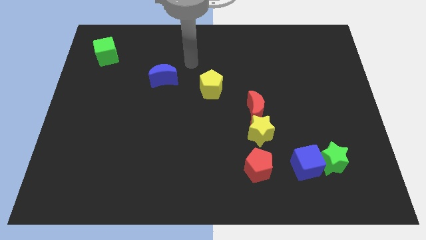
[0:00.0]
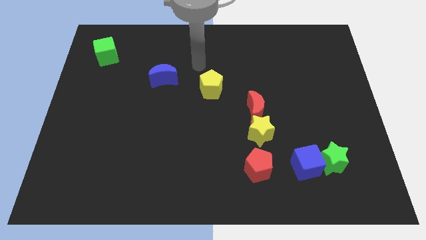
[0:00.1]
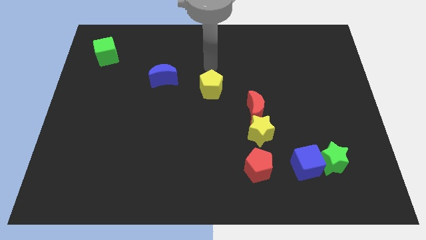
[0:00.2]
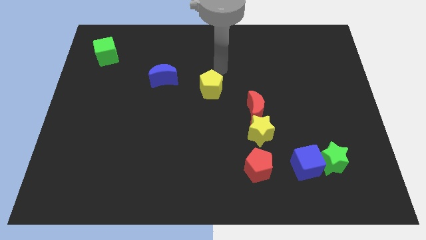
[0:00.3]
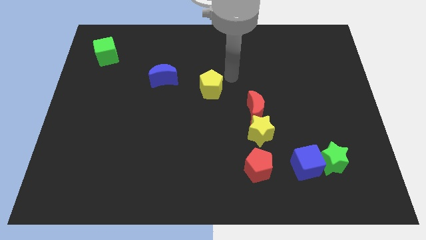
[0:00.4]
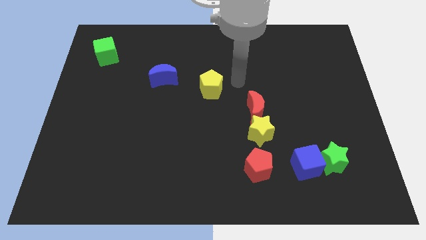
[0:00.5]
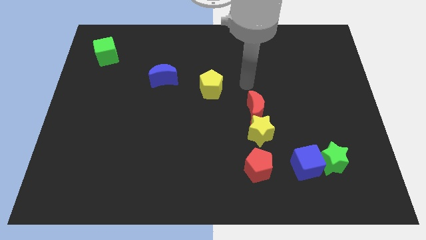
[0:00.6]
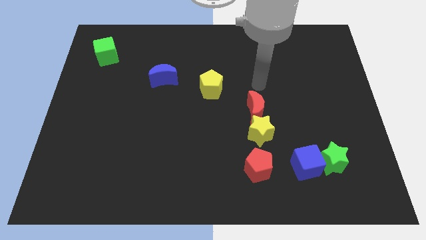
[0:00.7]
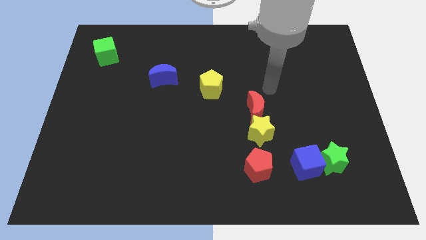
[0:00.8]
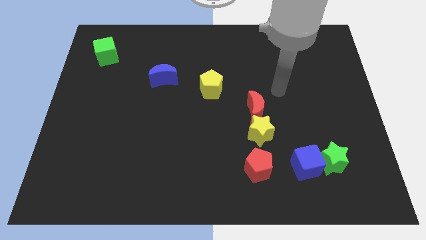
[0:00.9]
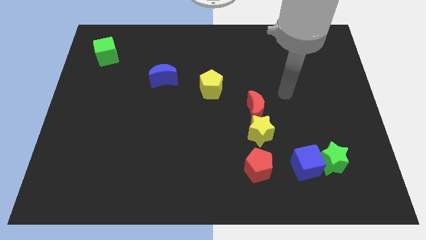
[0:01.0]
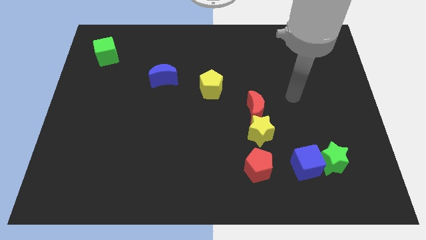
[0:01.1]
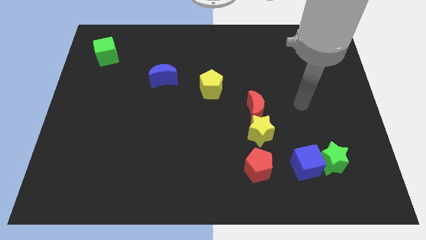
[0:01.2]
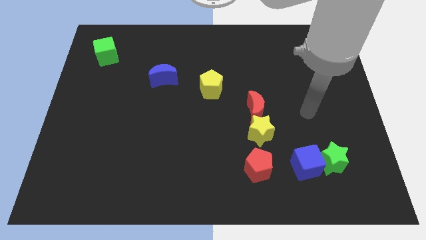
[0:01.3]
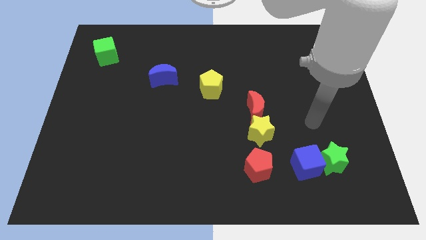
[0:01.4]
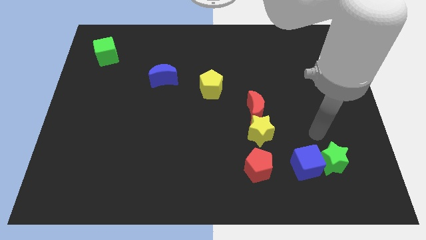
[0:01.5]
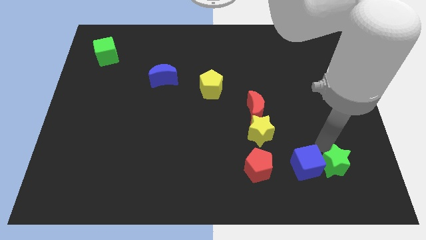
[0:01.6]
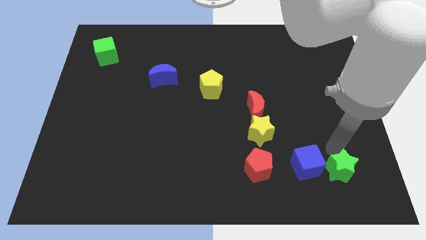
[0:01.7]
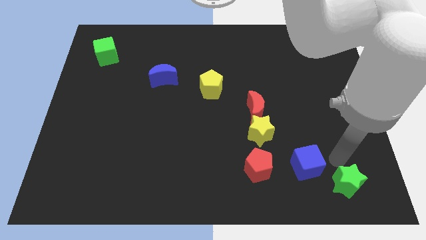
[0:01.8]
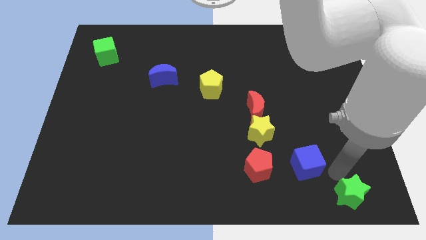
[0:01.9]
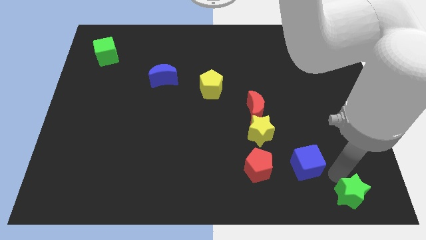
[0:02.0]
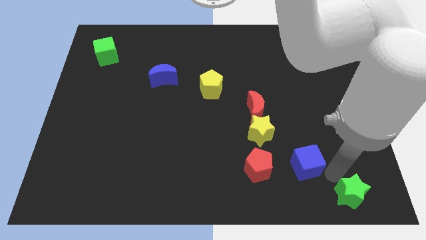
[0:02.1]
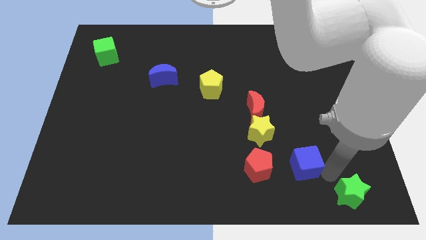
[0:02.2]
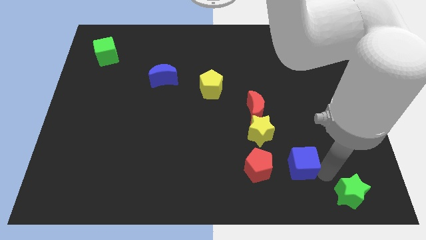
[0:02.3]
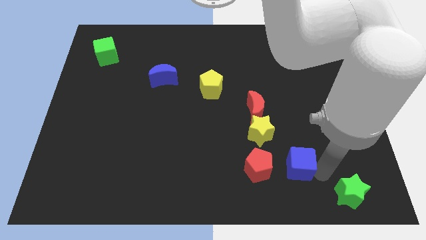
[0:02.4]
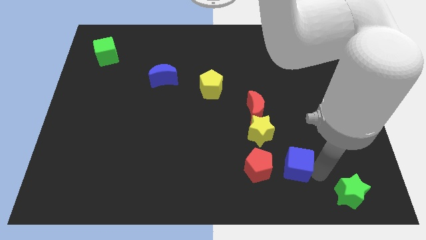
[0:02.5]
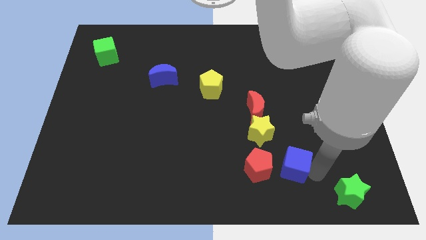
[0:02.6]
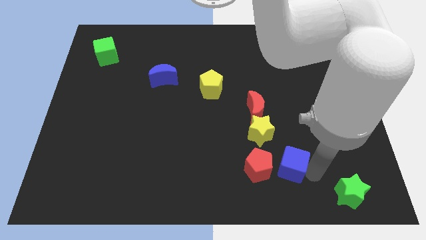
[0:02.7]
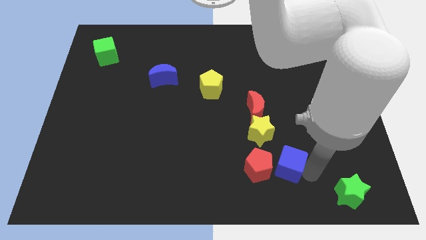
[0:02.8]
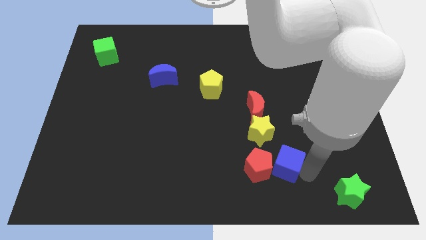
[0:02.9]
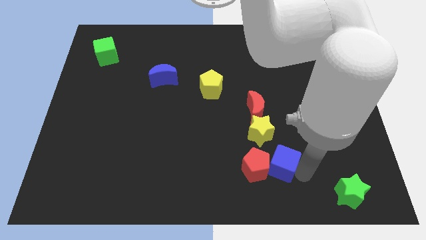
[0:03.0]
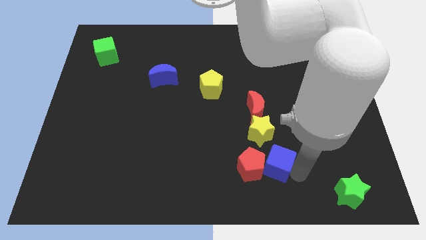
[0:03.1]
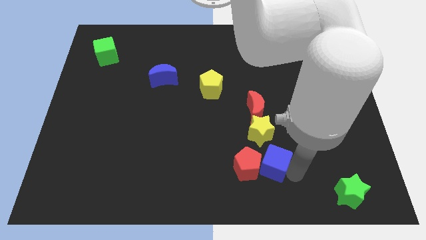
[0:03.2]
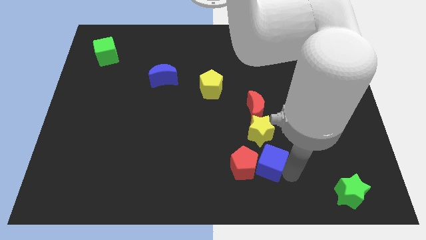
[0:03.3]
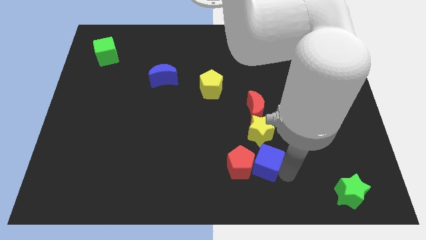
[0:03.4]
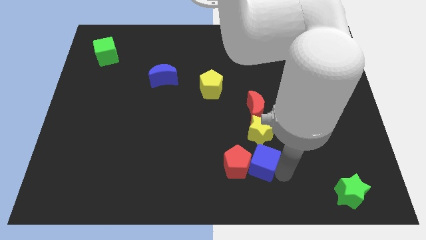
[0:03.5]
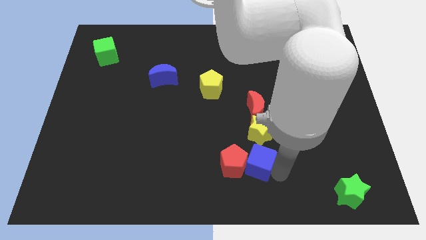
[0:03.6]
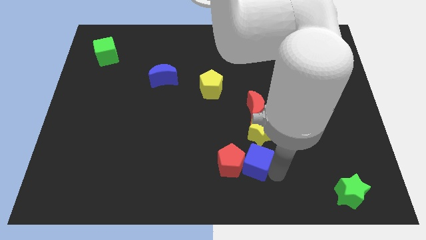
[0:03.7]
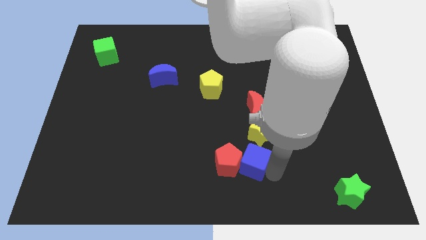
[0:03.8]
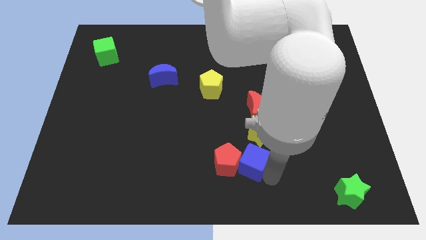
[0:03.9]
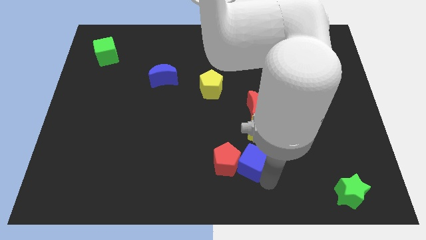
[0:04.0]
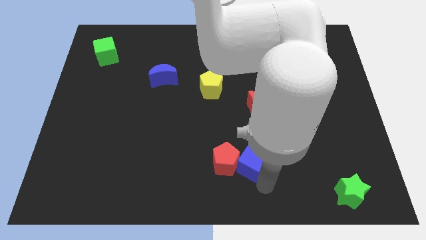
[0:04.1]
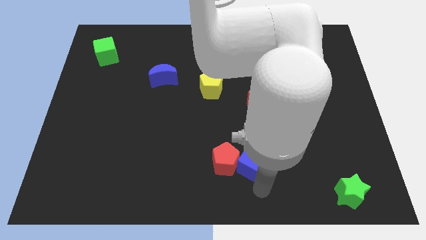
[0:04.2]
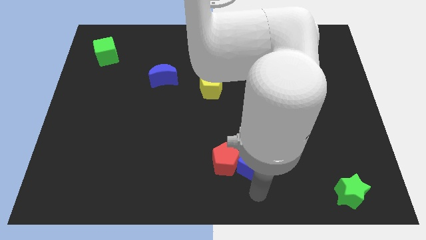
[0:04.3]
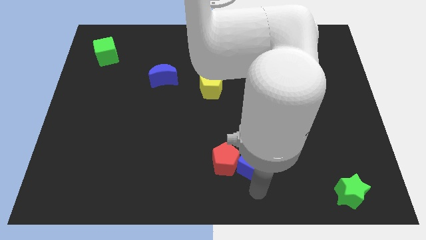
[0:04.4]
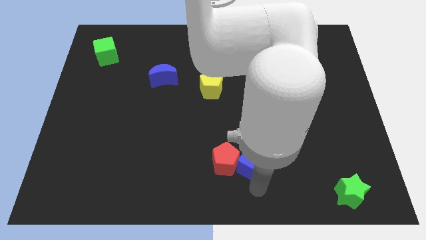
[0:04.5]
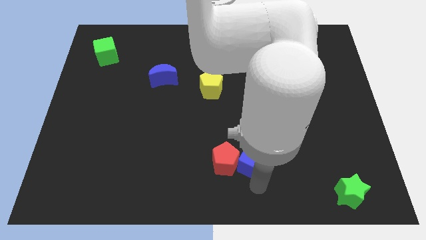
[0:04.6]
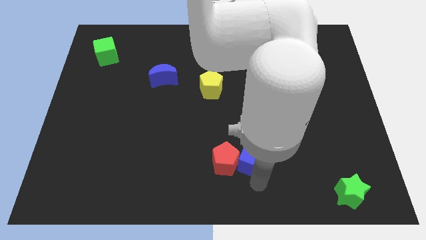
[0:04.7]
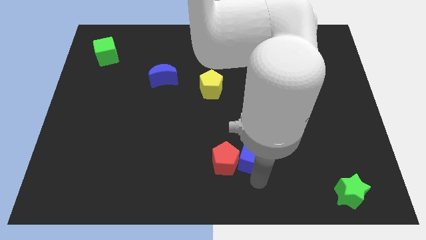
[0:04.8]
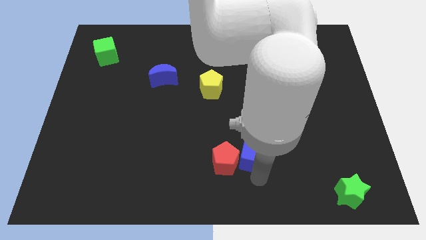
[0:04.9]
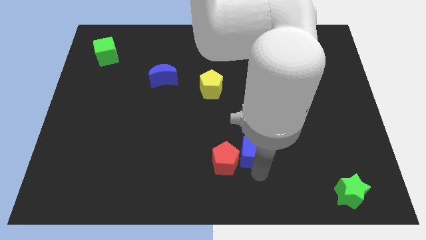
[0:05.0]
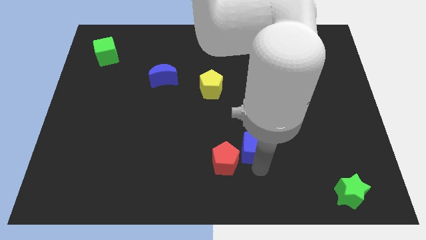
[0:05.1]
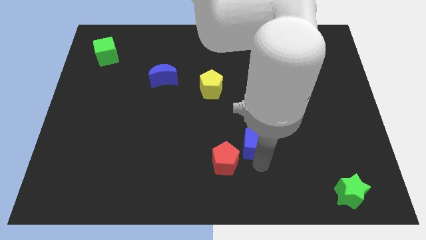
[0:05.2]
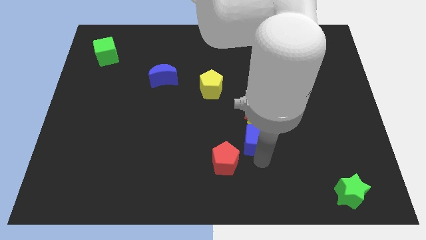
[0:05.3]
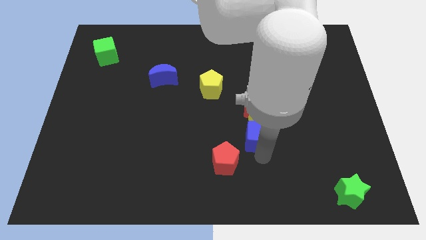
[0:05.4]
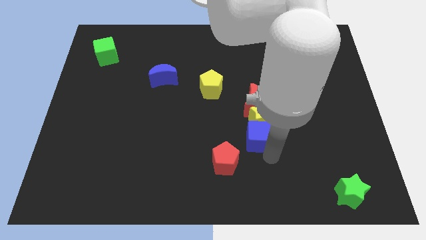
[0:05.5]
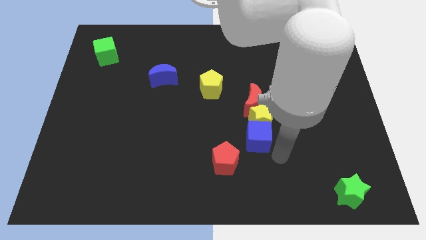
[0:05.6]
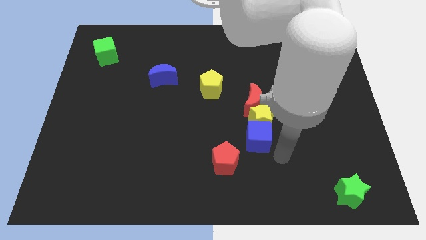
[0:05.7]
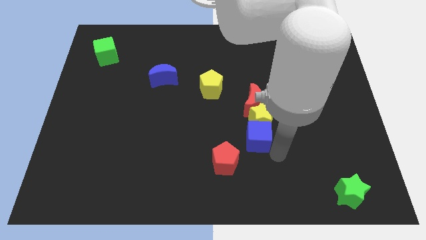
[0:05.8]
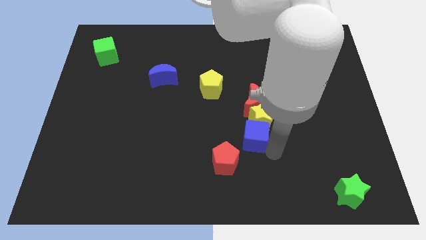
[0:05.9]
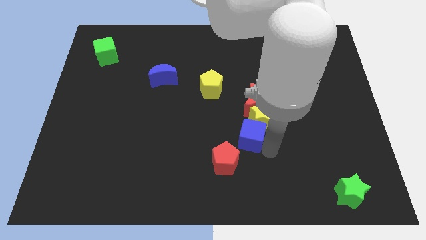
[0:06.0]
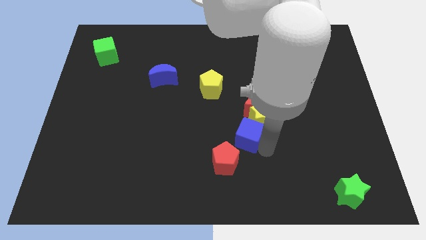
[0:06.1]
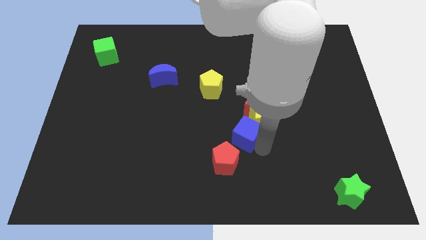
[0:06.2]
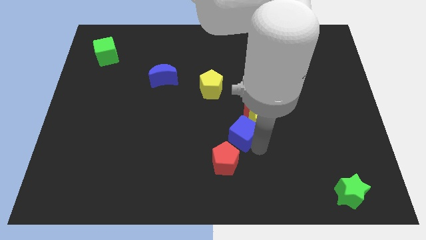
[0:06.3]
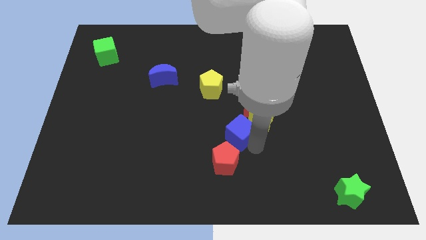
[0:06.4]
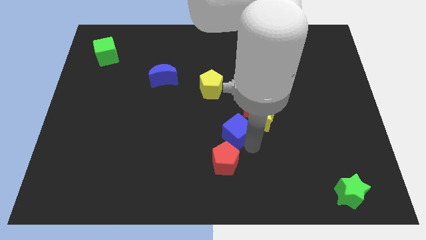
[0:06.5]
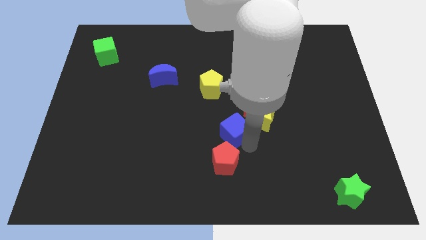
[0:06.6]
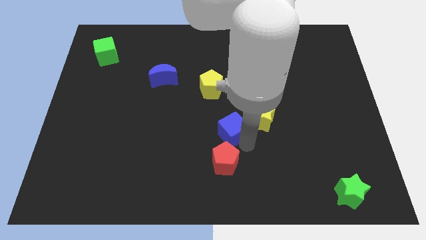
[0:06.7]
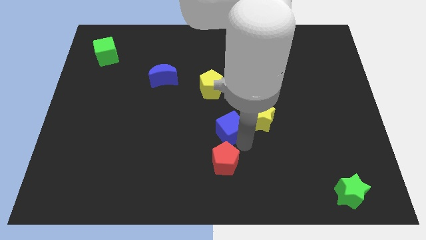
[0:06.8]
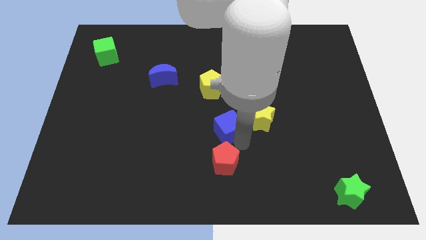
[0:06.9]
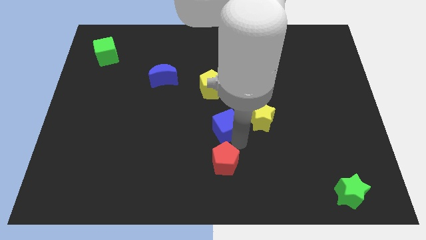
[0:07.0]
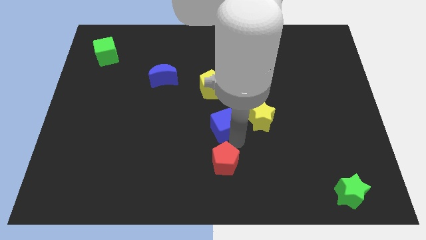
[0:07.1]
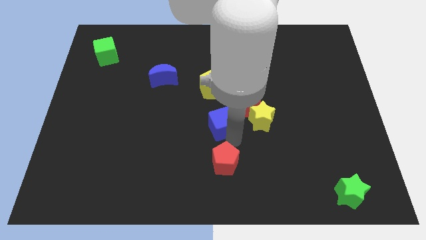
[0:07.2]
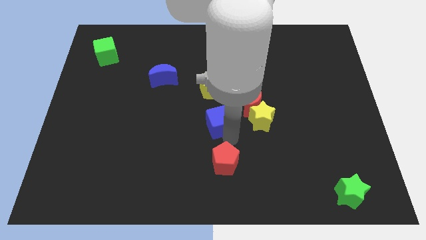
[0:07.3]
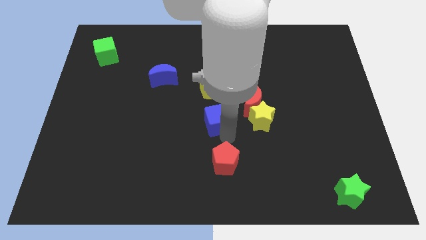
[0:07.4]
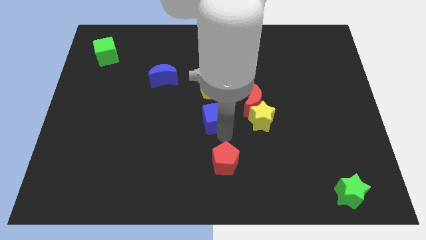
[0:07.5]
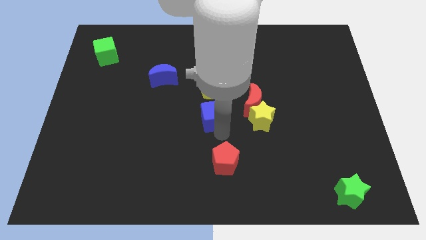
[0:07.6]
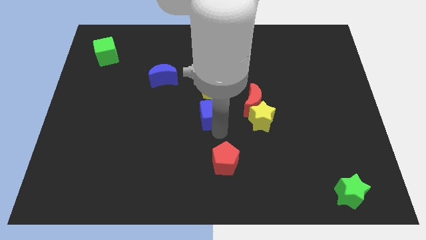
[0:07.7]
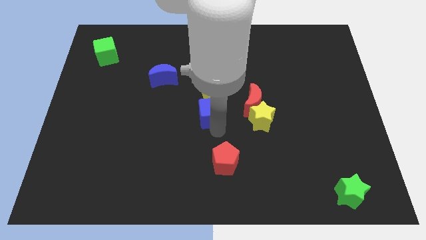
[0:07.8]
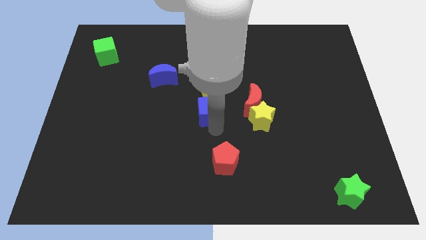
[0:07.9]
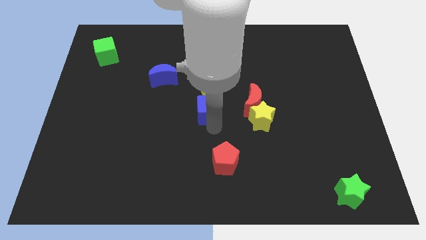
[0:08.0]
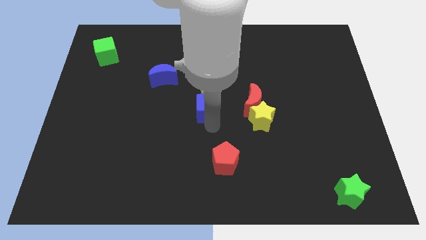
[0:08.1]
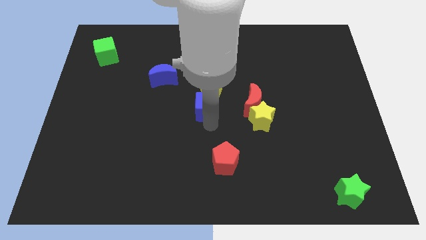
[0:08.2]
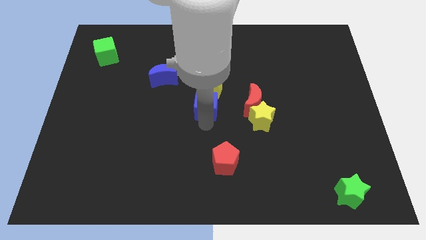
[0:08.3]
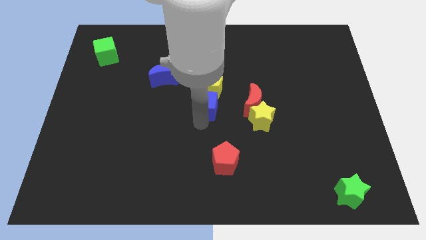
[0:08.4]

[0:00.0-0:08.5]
slide the blue cube towards the yellow pentagon
